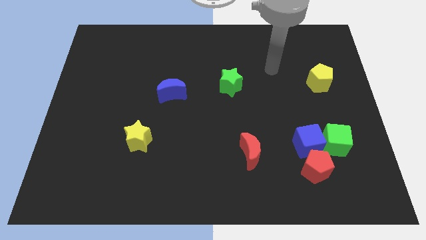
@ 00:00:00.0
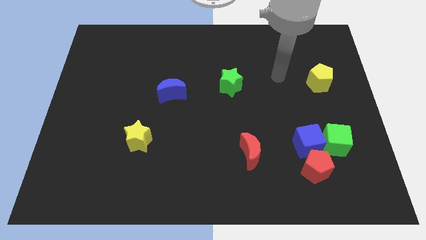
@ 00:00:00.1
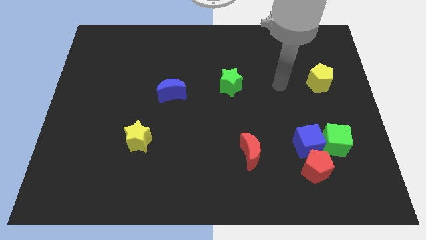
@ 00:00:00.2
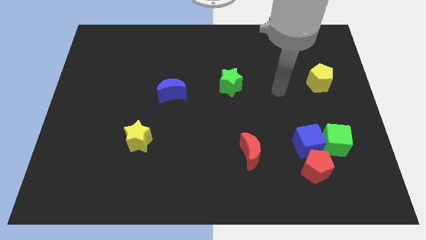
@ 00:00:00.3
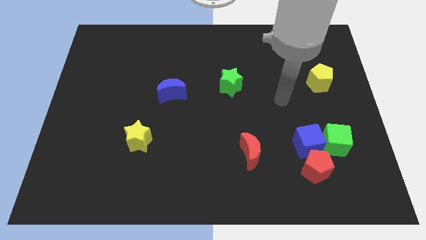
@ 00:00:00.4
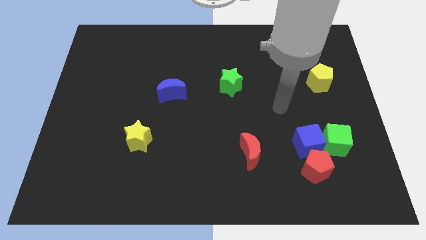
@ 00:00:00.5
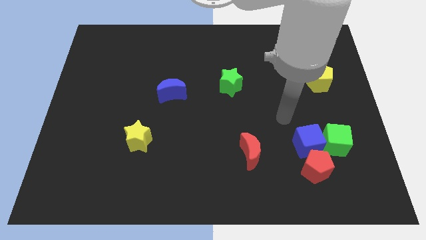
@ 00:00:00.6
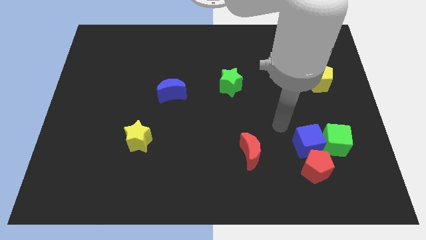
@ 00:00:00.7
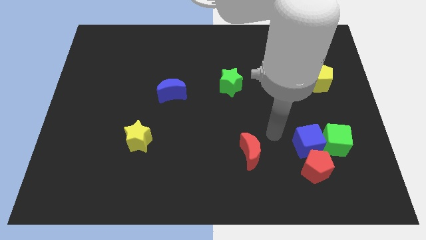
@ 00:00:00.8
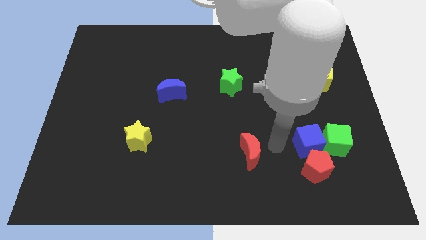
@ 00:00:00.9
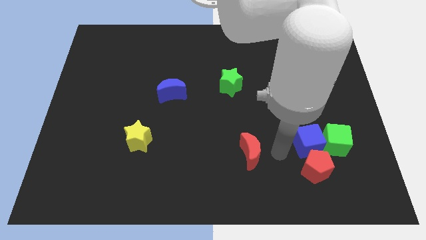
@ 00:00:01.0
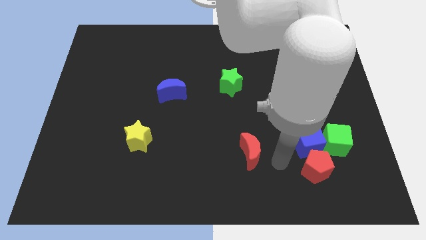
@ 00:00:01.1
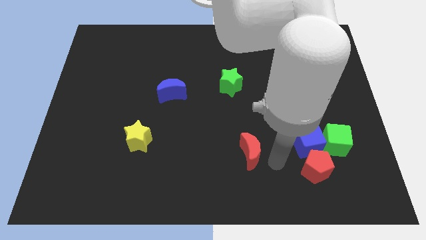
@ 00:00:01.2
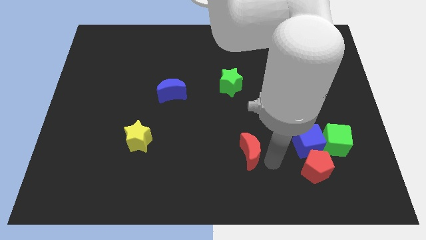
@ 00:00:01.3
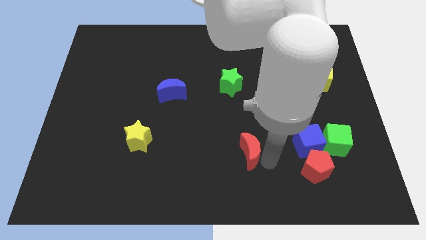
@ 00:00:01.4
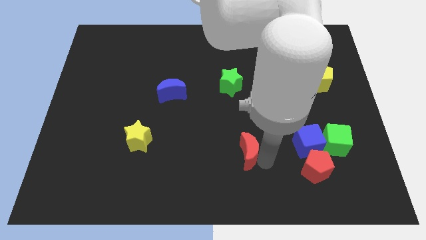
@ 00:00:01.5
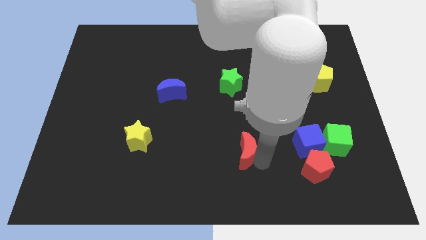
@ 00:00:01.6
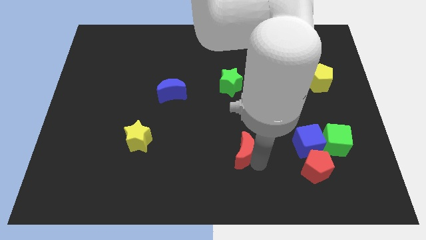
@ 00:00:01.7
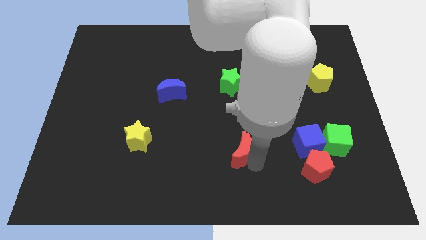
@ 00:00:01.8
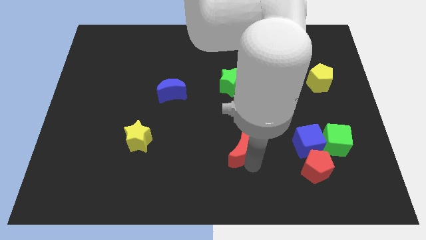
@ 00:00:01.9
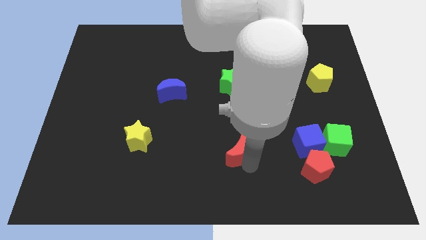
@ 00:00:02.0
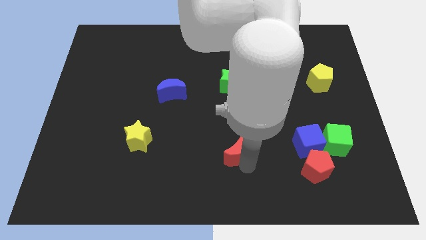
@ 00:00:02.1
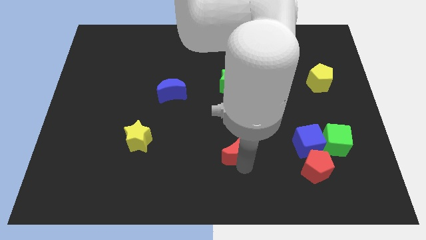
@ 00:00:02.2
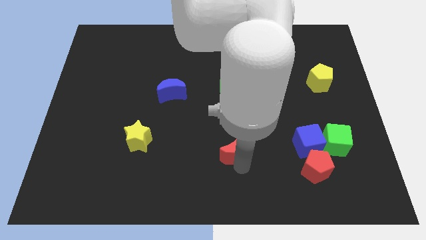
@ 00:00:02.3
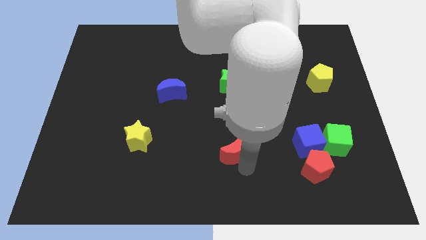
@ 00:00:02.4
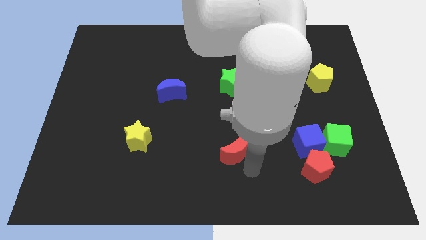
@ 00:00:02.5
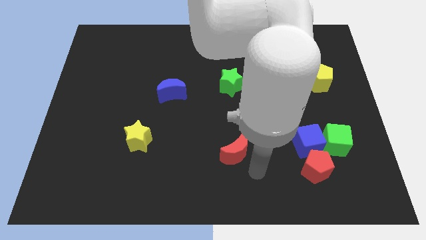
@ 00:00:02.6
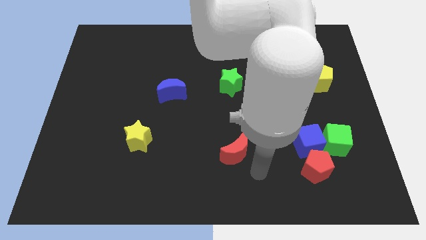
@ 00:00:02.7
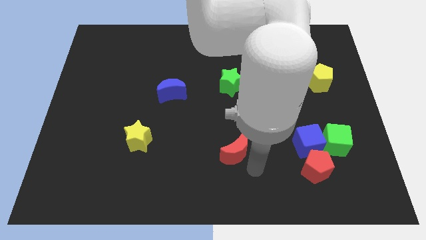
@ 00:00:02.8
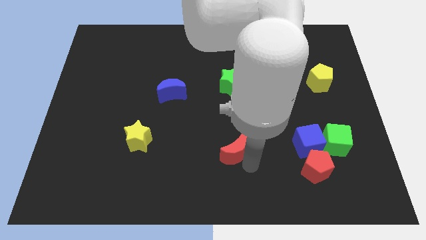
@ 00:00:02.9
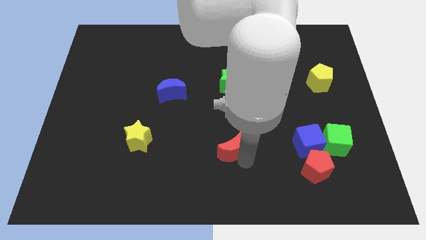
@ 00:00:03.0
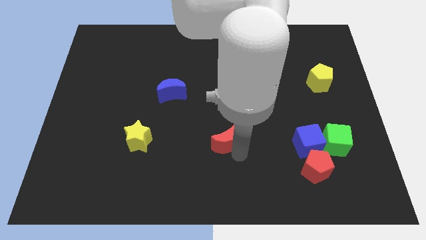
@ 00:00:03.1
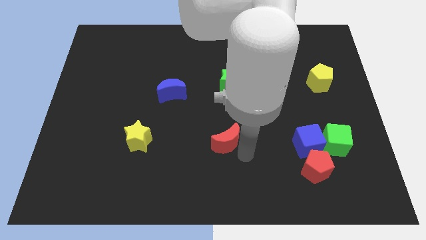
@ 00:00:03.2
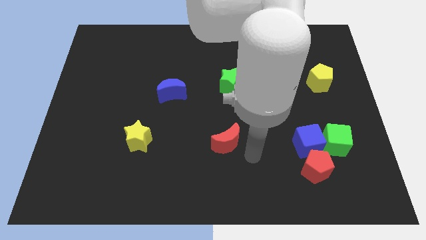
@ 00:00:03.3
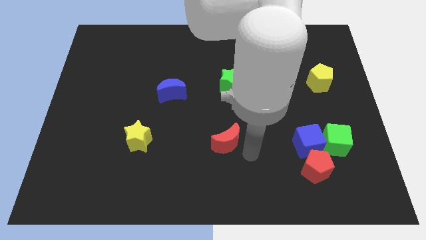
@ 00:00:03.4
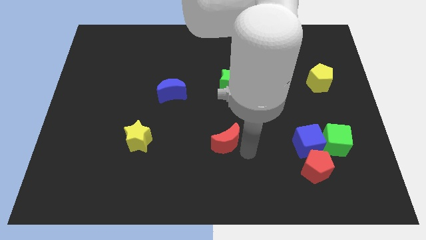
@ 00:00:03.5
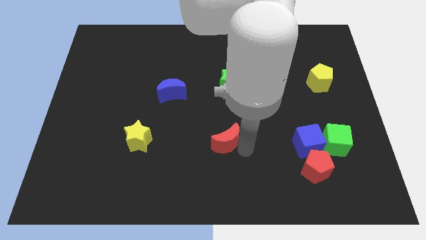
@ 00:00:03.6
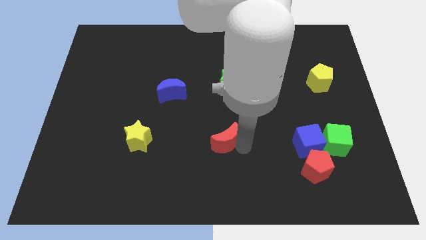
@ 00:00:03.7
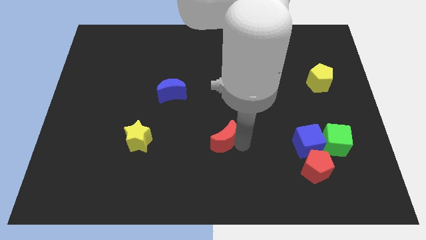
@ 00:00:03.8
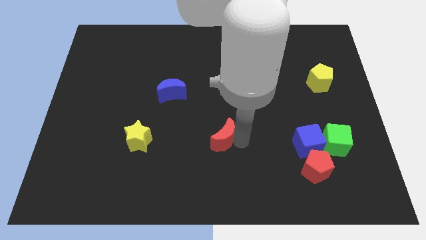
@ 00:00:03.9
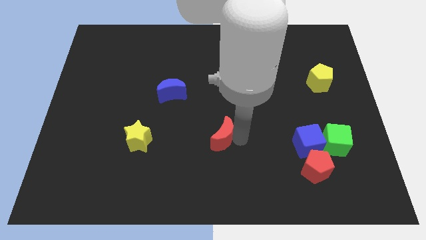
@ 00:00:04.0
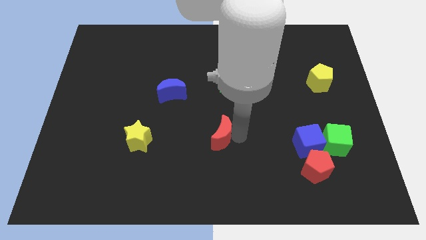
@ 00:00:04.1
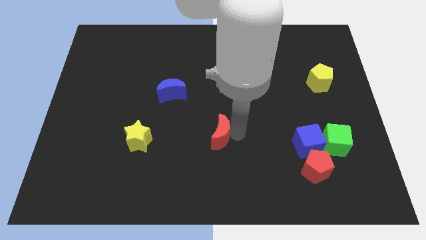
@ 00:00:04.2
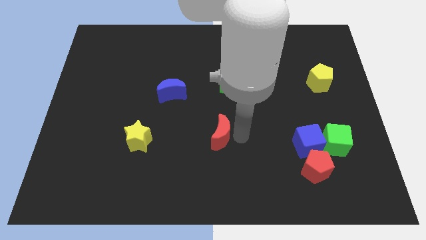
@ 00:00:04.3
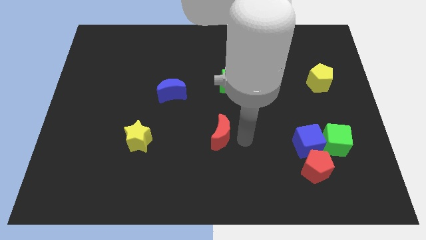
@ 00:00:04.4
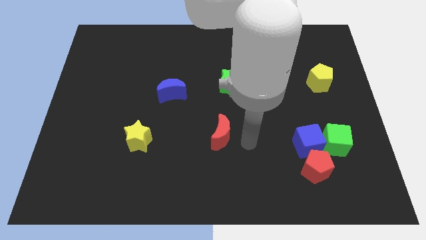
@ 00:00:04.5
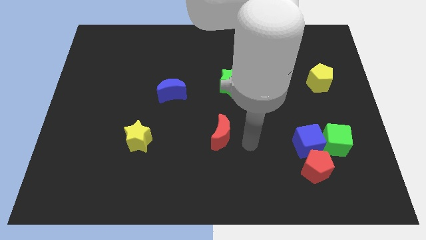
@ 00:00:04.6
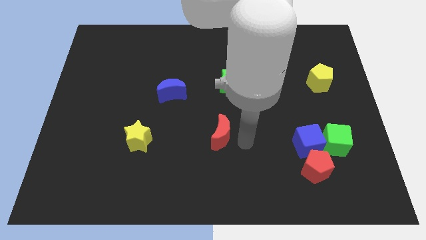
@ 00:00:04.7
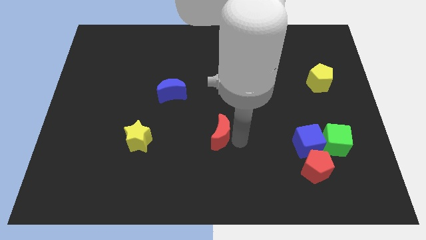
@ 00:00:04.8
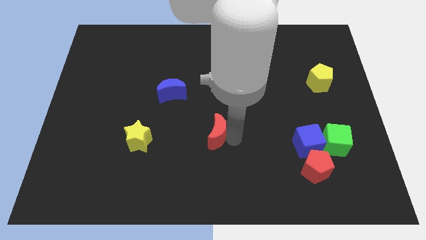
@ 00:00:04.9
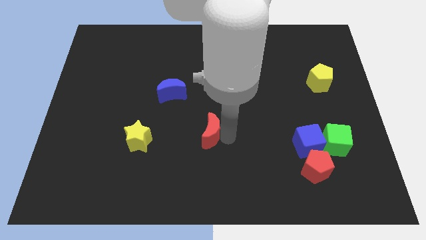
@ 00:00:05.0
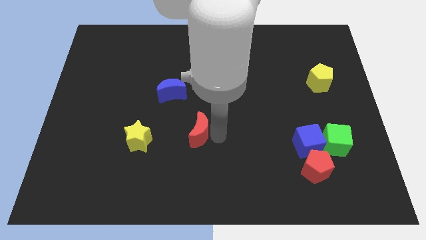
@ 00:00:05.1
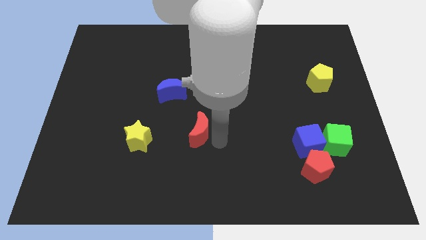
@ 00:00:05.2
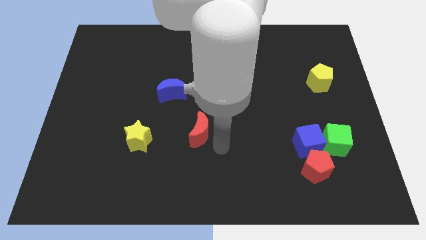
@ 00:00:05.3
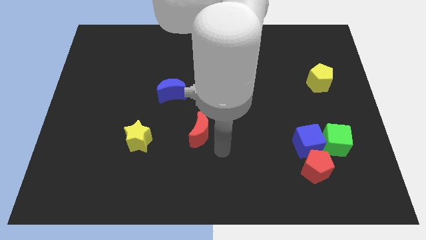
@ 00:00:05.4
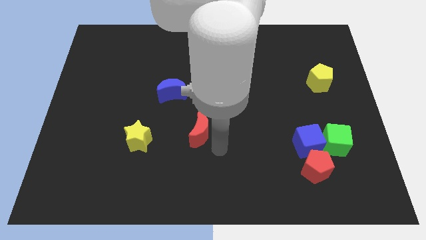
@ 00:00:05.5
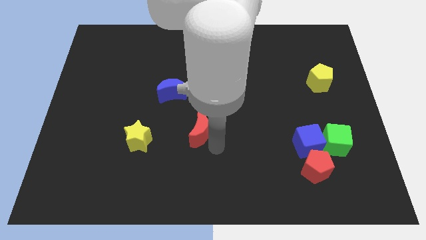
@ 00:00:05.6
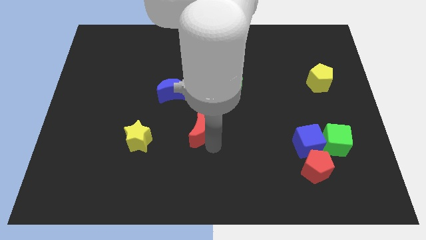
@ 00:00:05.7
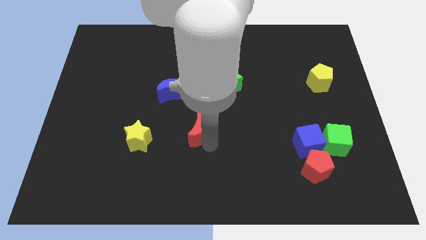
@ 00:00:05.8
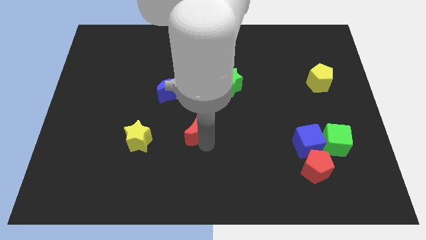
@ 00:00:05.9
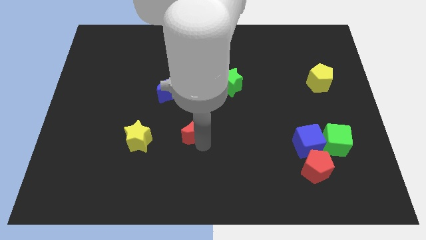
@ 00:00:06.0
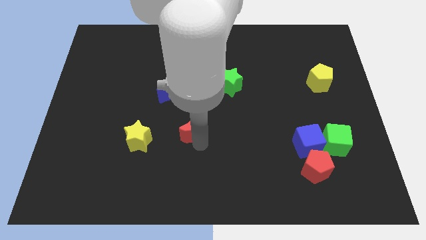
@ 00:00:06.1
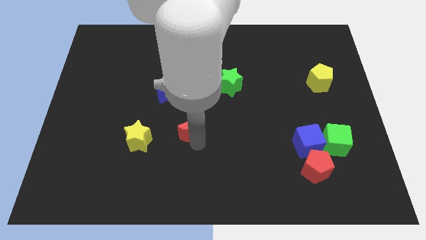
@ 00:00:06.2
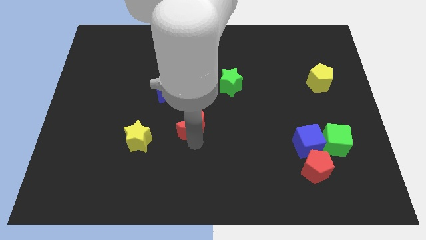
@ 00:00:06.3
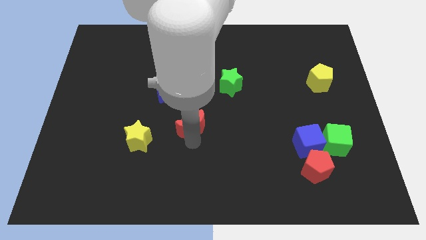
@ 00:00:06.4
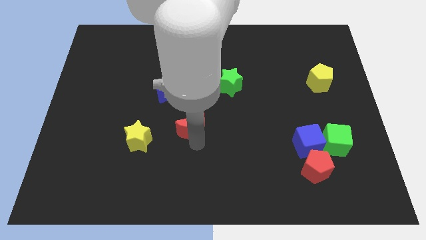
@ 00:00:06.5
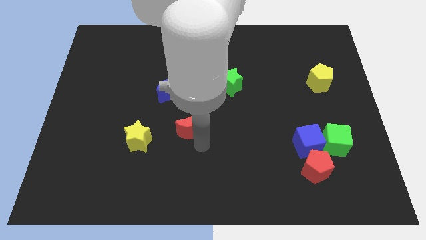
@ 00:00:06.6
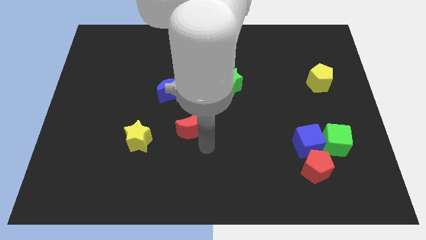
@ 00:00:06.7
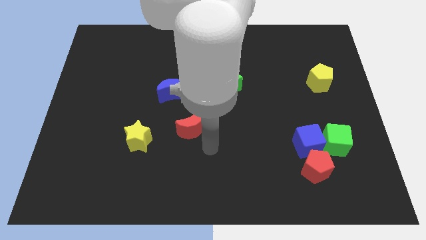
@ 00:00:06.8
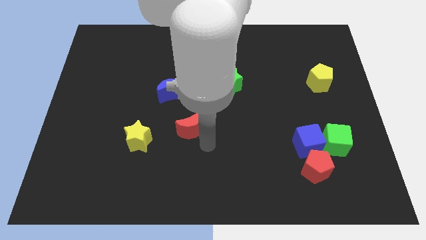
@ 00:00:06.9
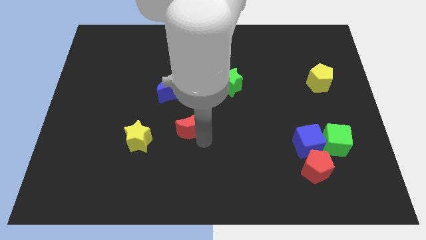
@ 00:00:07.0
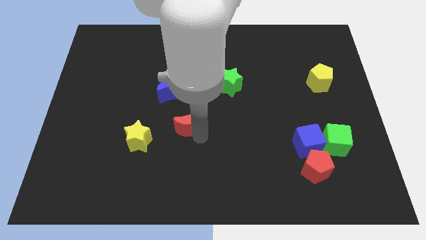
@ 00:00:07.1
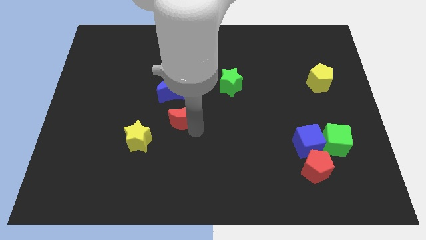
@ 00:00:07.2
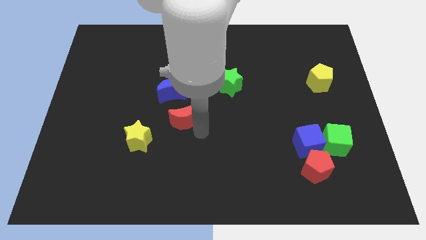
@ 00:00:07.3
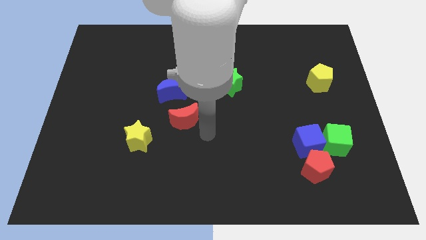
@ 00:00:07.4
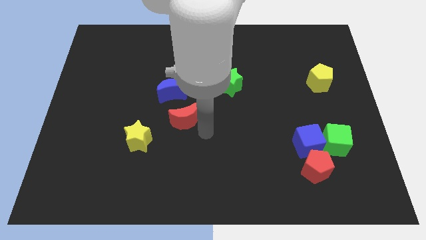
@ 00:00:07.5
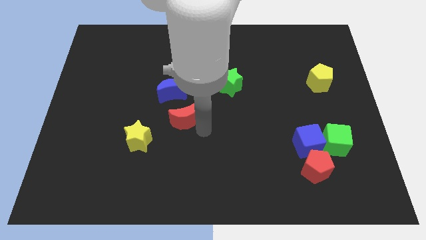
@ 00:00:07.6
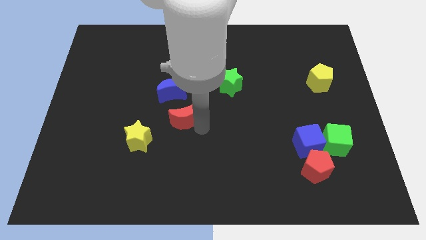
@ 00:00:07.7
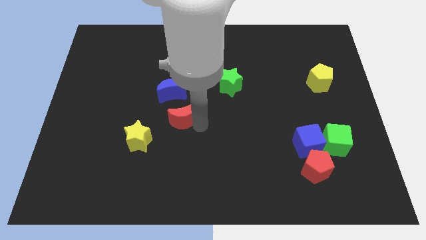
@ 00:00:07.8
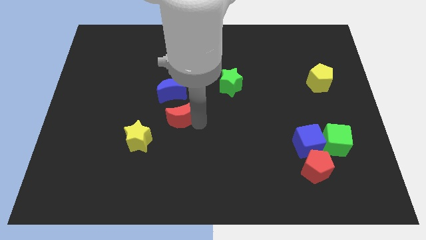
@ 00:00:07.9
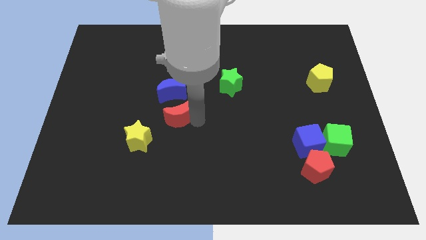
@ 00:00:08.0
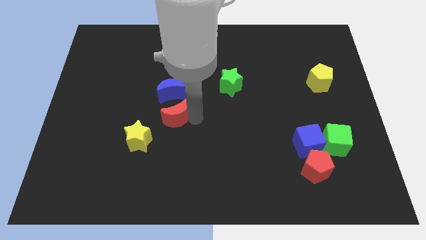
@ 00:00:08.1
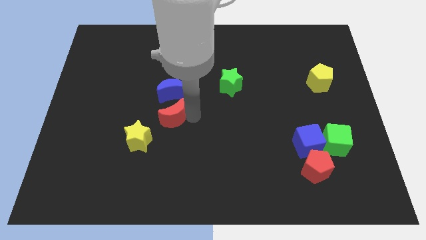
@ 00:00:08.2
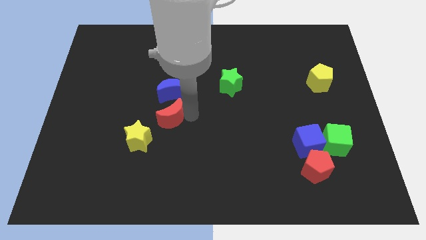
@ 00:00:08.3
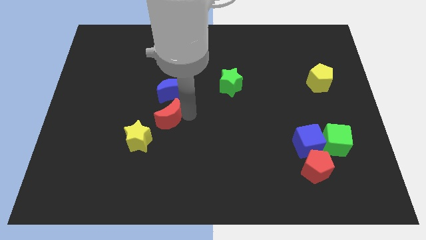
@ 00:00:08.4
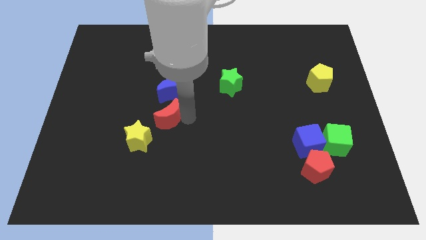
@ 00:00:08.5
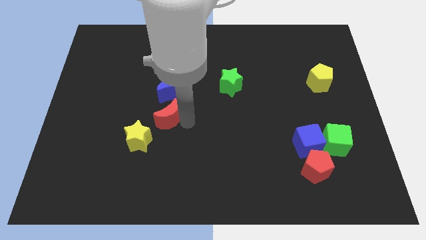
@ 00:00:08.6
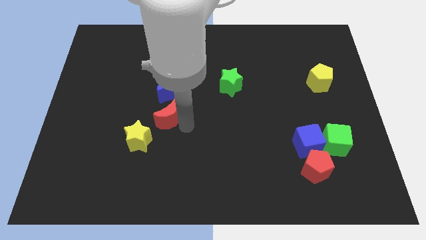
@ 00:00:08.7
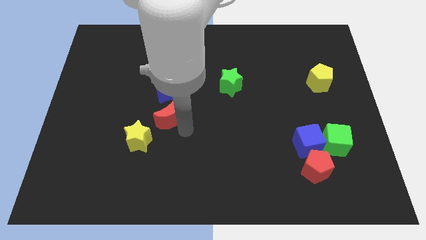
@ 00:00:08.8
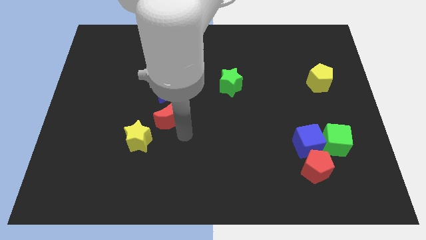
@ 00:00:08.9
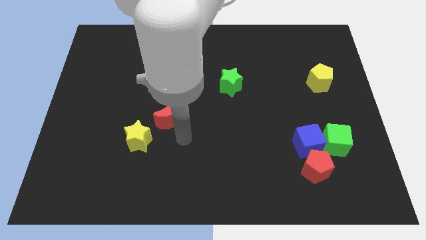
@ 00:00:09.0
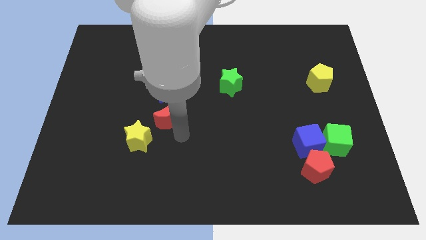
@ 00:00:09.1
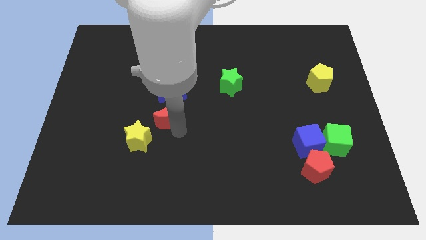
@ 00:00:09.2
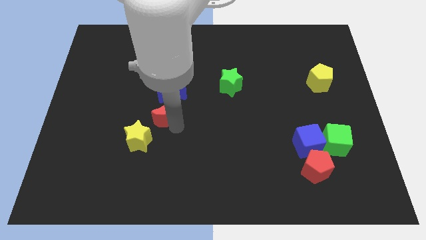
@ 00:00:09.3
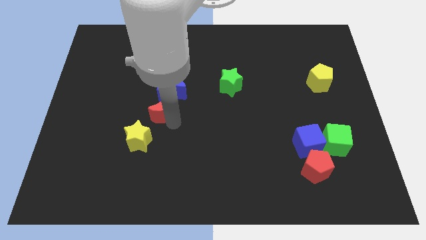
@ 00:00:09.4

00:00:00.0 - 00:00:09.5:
slide the red moon up and then to the left
